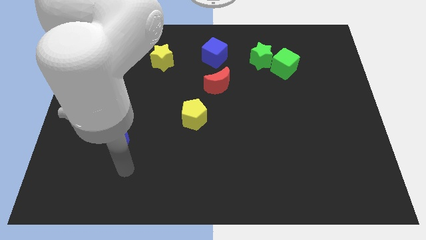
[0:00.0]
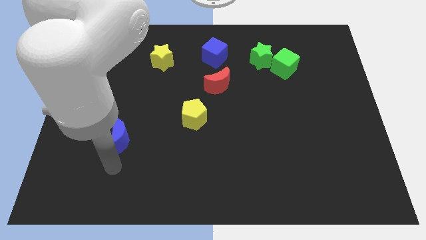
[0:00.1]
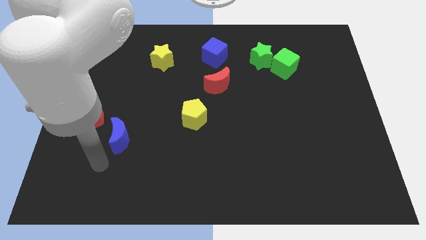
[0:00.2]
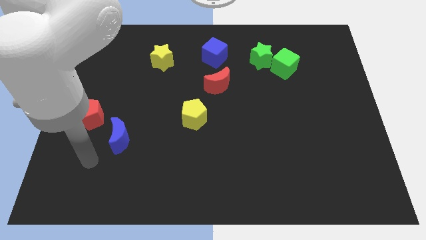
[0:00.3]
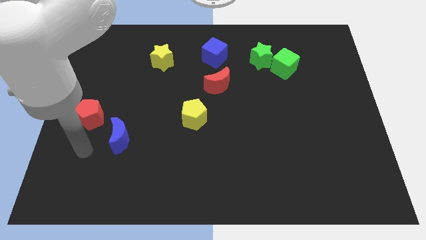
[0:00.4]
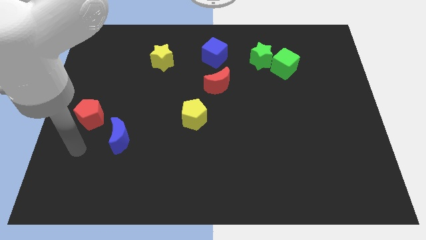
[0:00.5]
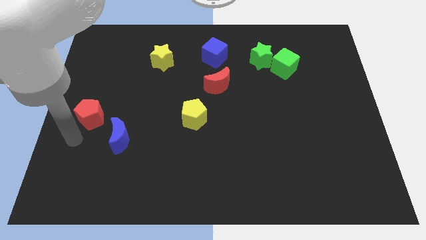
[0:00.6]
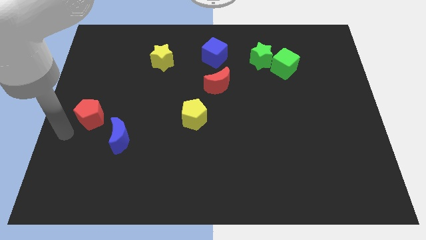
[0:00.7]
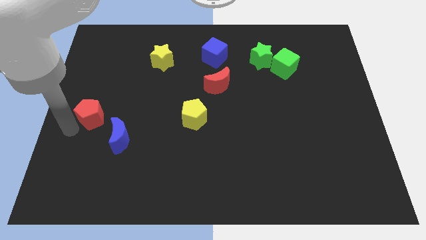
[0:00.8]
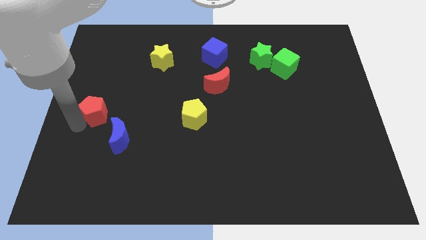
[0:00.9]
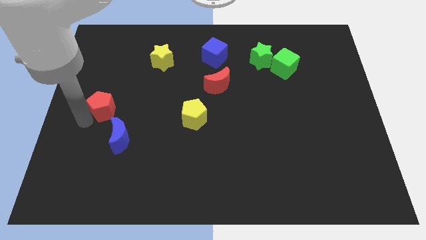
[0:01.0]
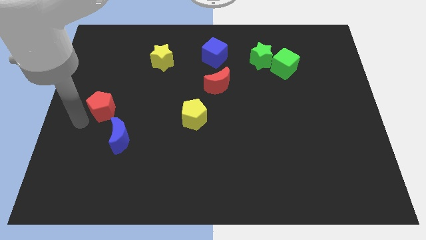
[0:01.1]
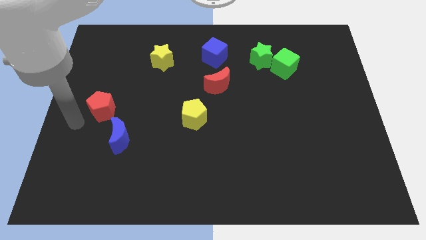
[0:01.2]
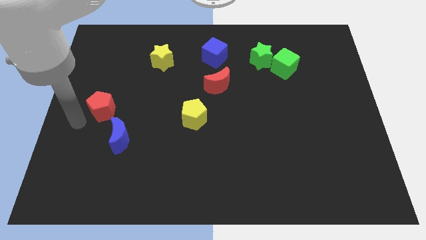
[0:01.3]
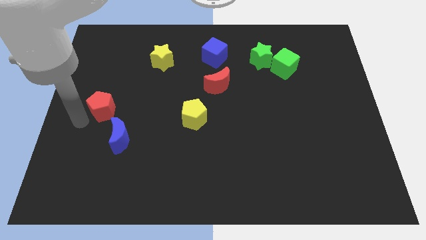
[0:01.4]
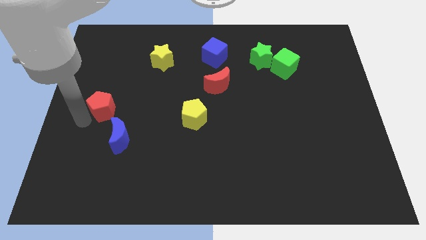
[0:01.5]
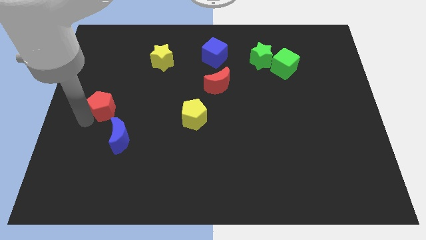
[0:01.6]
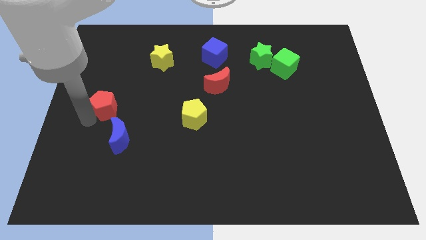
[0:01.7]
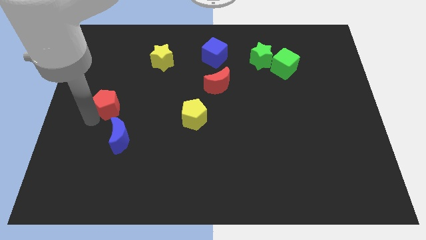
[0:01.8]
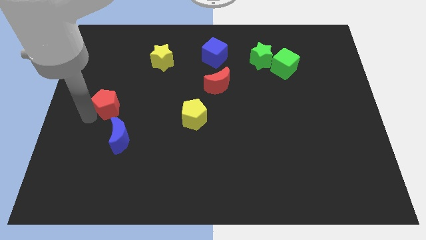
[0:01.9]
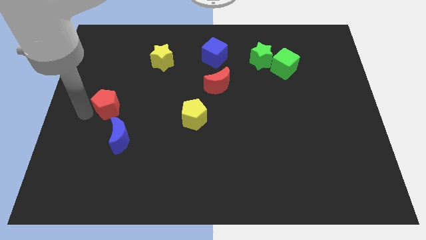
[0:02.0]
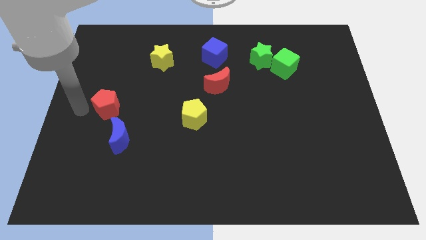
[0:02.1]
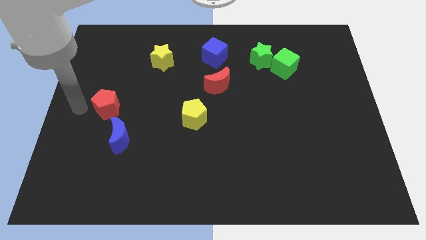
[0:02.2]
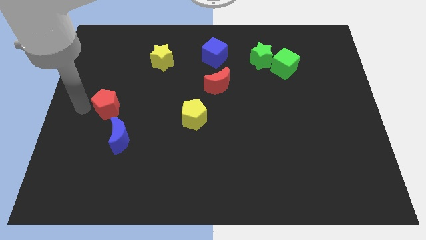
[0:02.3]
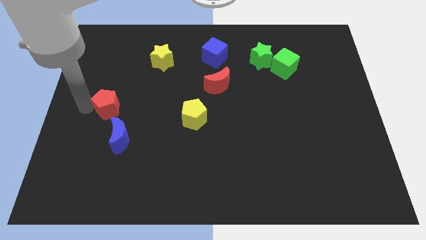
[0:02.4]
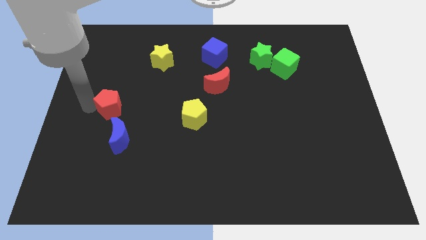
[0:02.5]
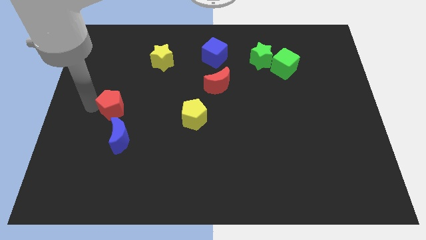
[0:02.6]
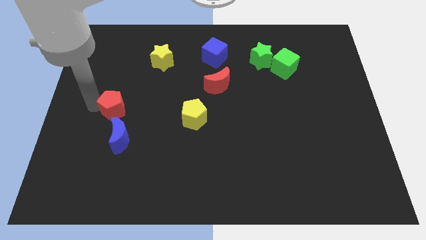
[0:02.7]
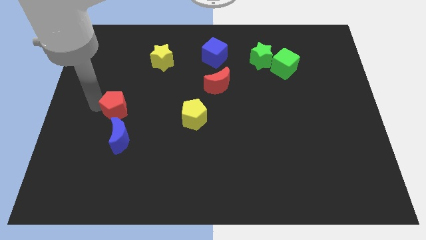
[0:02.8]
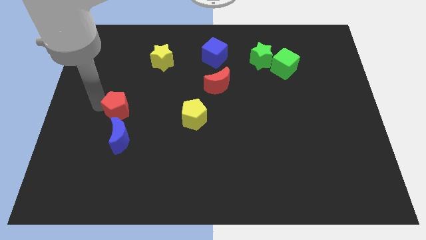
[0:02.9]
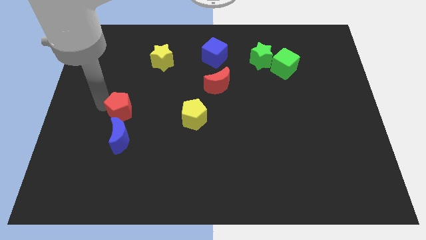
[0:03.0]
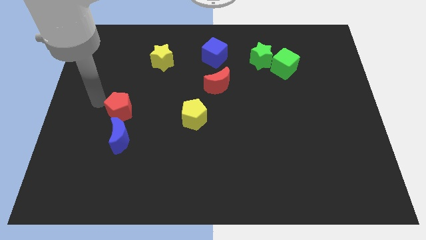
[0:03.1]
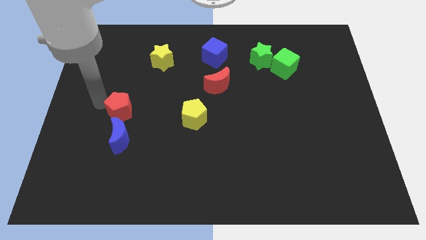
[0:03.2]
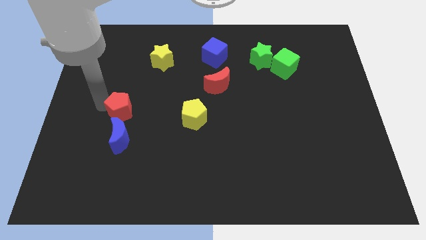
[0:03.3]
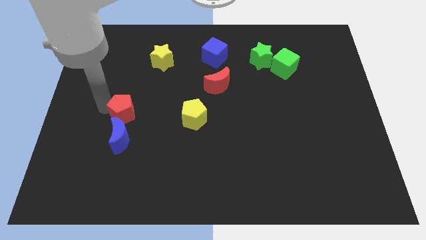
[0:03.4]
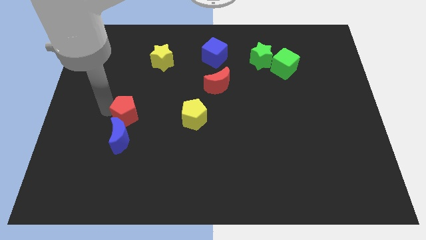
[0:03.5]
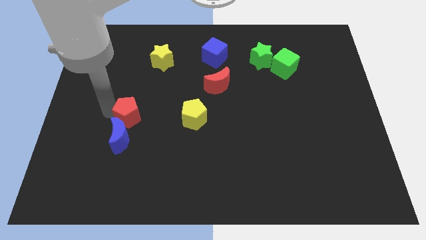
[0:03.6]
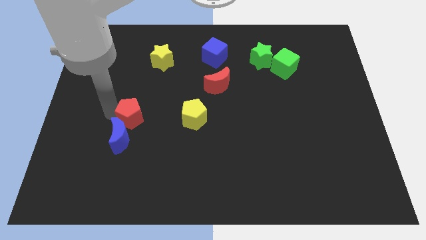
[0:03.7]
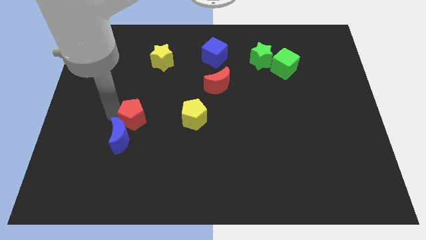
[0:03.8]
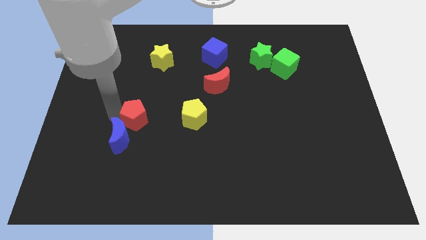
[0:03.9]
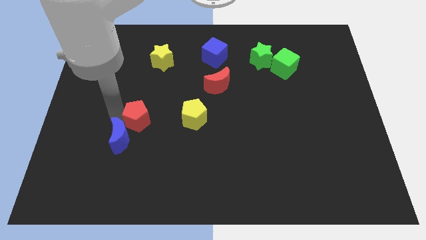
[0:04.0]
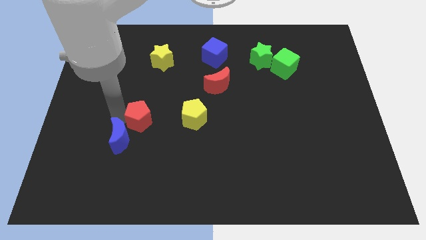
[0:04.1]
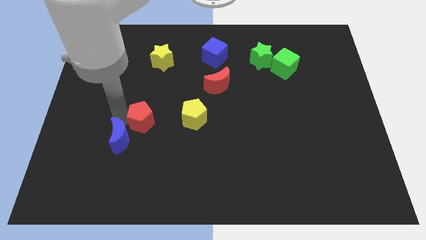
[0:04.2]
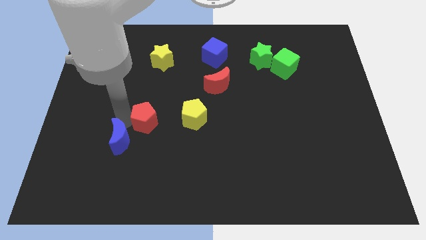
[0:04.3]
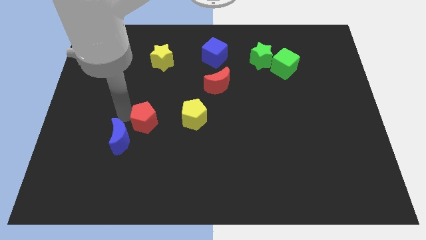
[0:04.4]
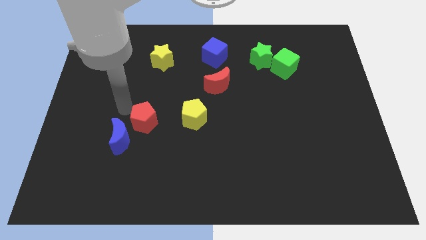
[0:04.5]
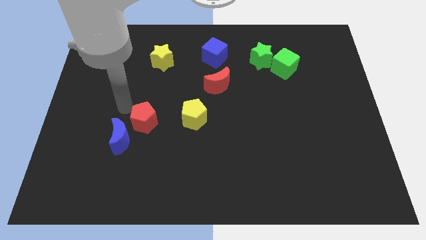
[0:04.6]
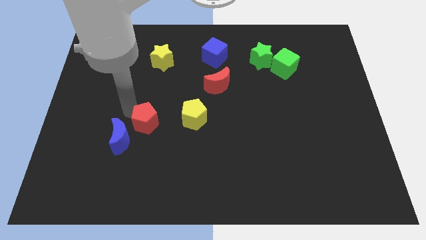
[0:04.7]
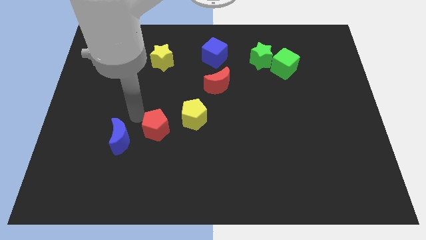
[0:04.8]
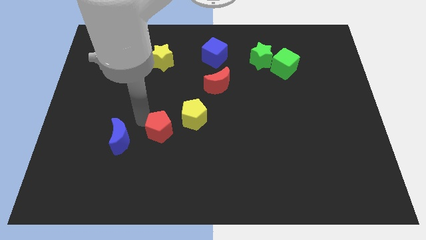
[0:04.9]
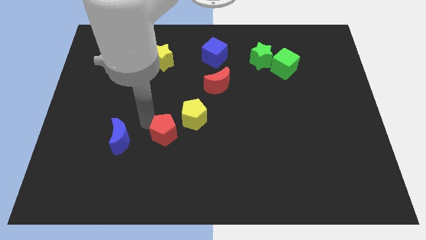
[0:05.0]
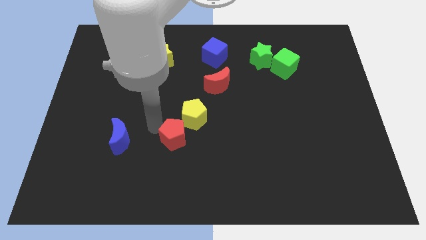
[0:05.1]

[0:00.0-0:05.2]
push the red pentagon to the bottom of the yellow pentagon

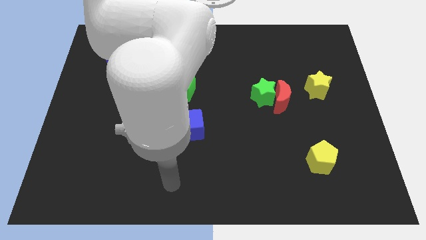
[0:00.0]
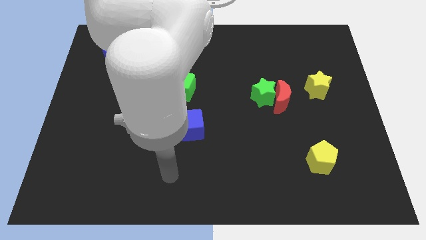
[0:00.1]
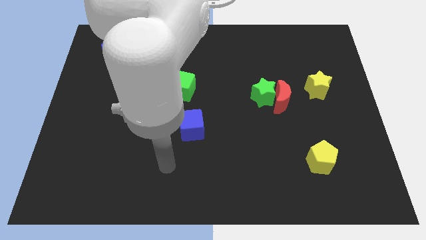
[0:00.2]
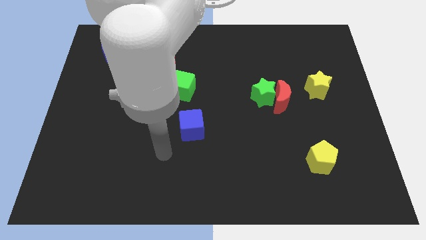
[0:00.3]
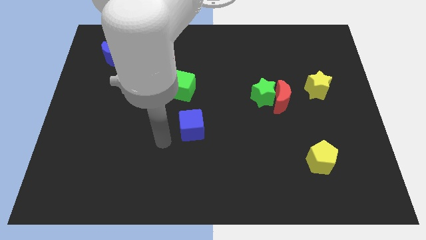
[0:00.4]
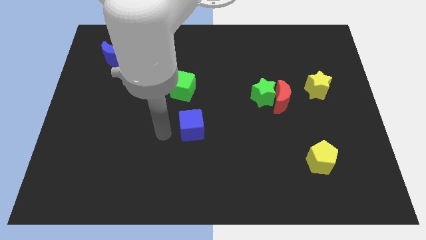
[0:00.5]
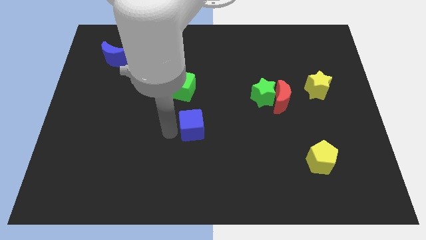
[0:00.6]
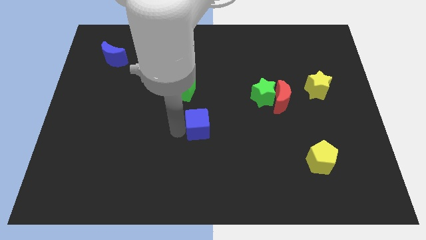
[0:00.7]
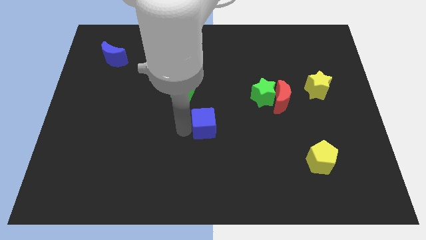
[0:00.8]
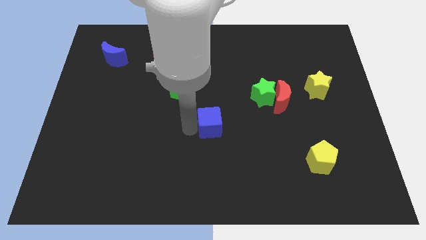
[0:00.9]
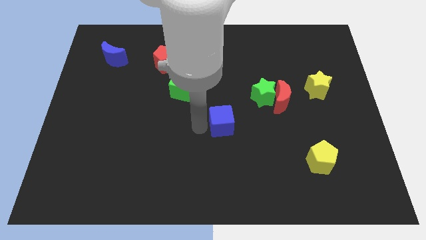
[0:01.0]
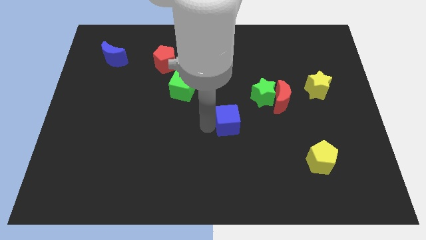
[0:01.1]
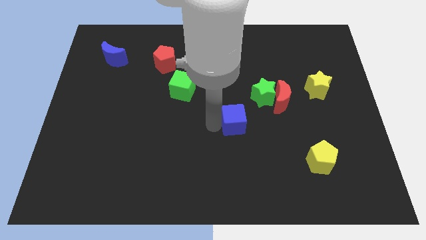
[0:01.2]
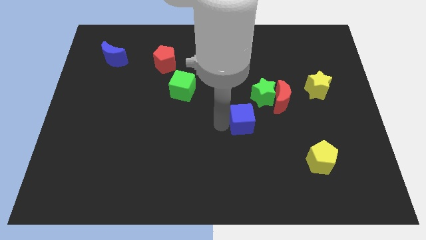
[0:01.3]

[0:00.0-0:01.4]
slide the blue cube diagonally down and to the left of the red moon

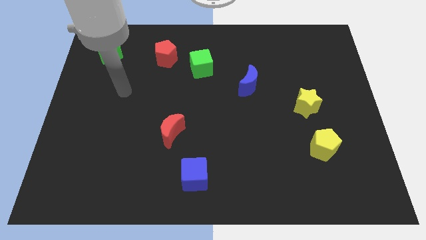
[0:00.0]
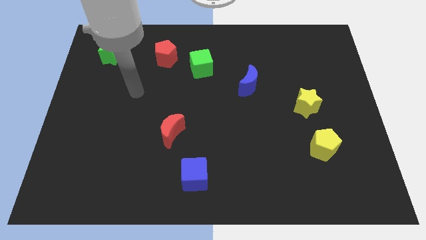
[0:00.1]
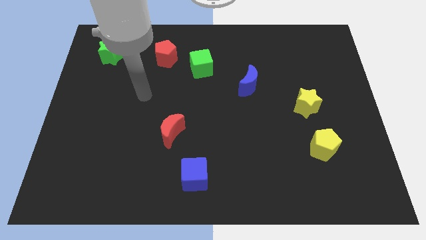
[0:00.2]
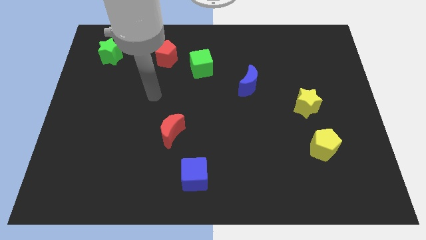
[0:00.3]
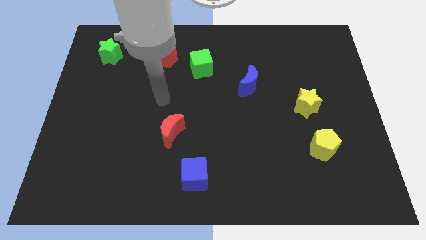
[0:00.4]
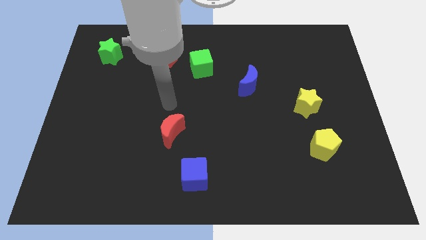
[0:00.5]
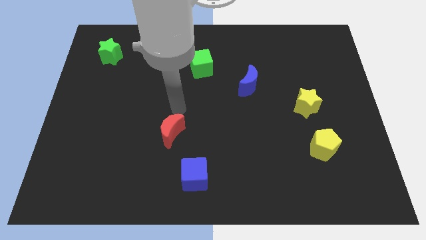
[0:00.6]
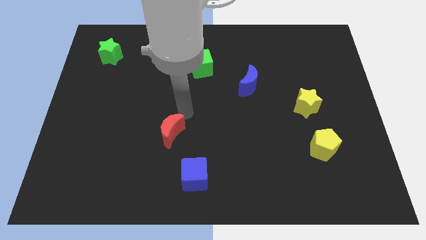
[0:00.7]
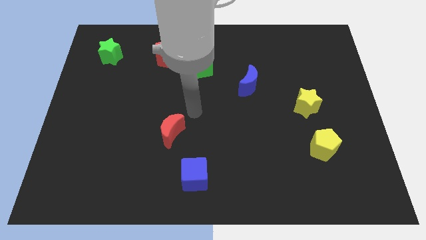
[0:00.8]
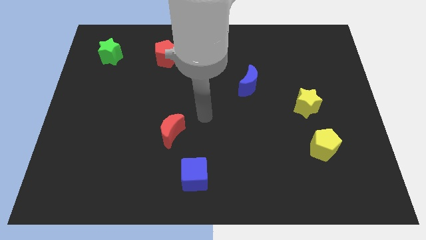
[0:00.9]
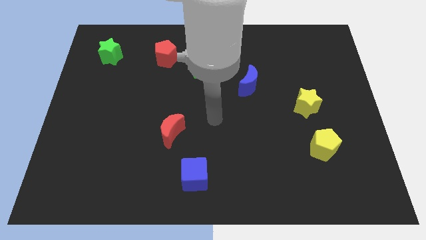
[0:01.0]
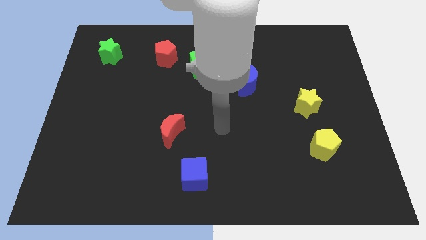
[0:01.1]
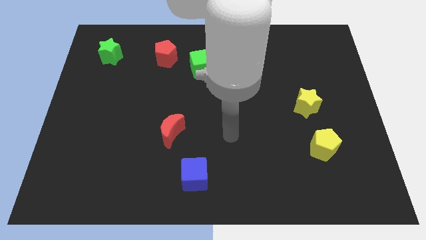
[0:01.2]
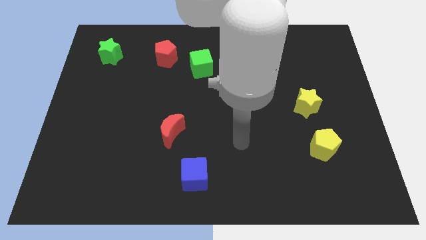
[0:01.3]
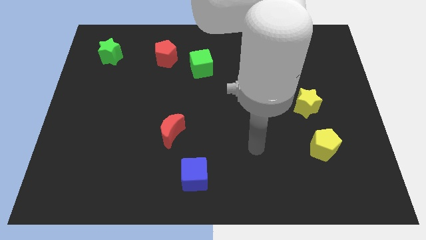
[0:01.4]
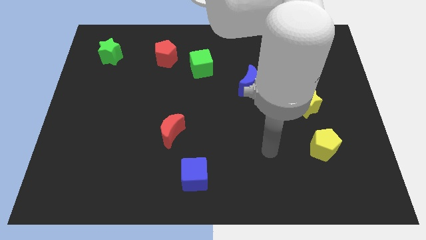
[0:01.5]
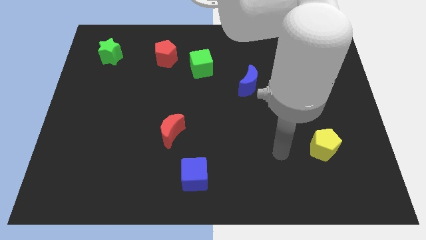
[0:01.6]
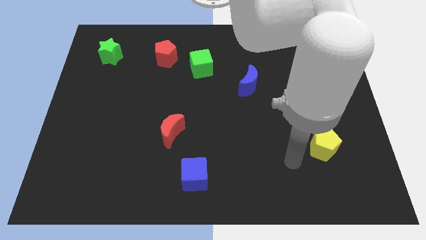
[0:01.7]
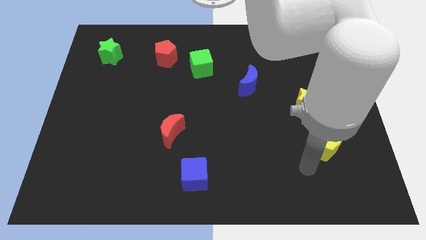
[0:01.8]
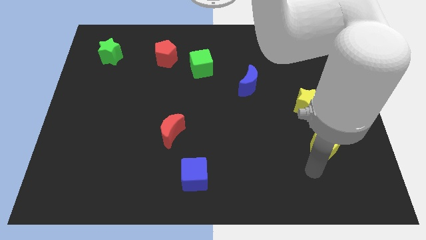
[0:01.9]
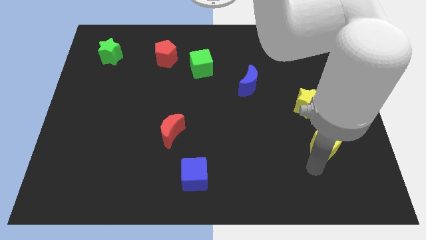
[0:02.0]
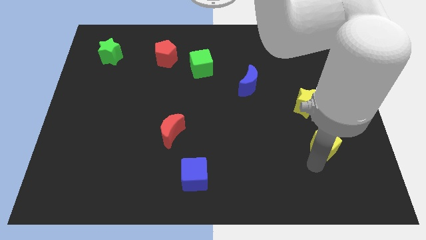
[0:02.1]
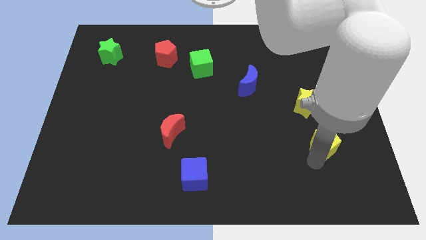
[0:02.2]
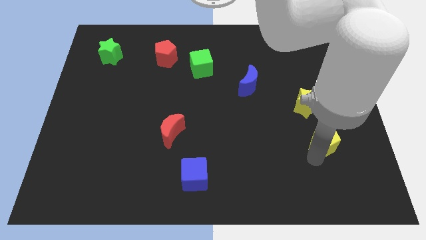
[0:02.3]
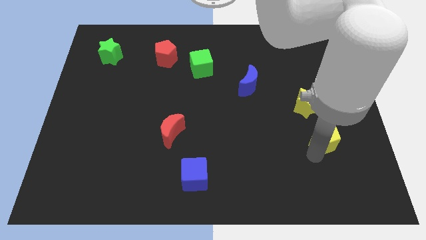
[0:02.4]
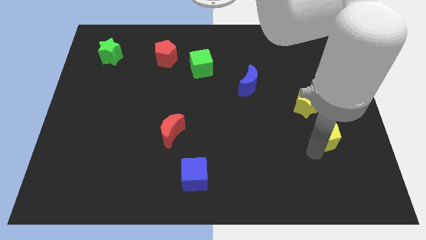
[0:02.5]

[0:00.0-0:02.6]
move the yellow pentagon to the bottom right side of the yellow star
